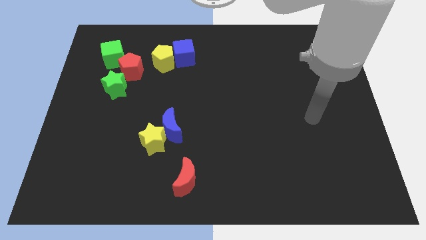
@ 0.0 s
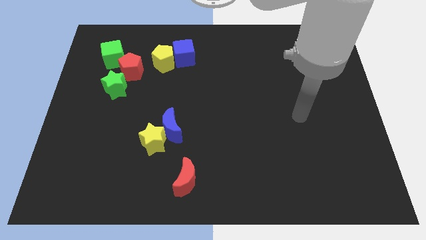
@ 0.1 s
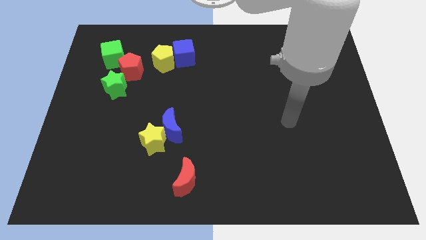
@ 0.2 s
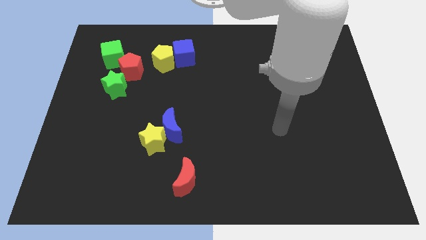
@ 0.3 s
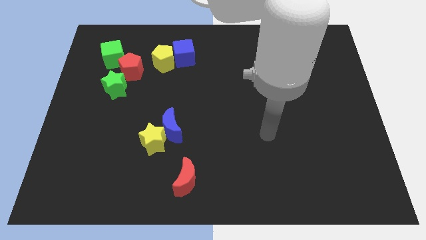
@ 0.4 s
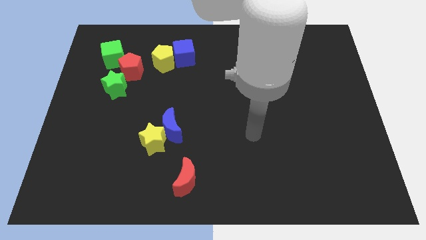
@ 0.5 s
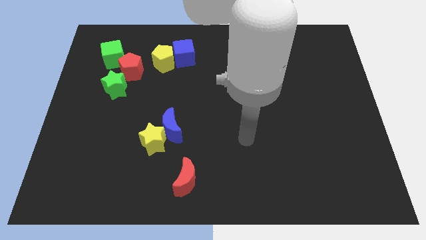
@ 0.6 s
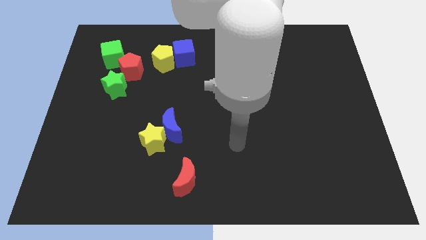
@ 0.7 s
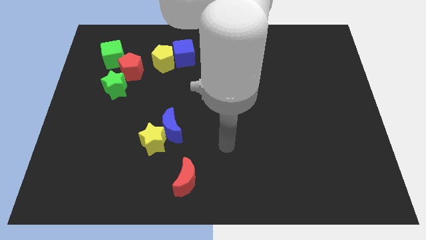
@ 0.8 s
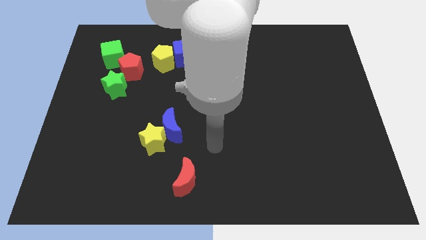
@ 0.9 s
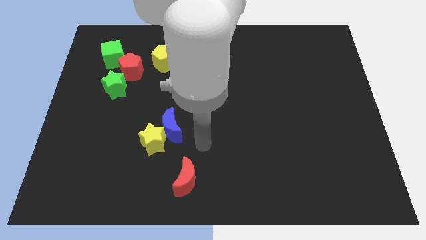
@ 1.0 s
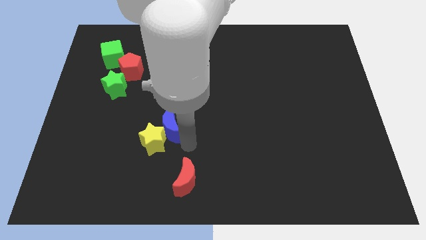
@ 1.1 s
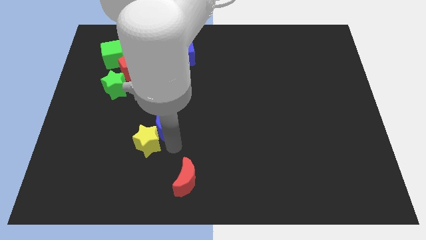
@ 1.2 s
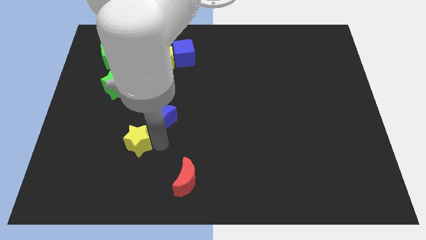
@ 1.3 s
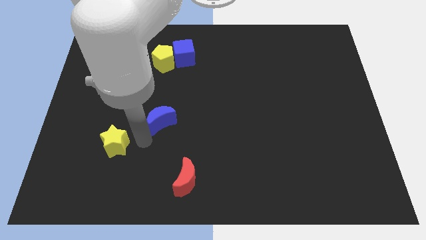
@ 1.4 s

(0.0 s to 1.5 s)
pull the blue moon apart from the yellow star

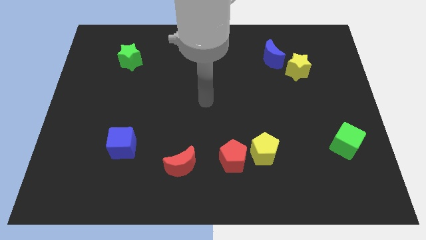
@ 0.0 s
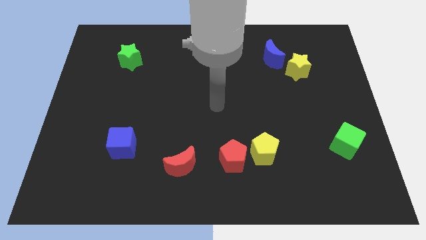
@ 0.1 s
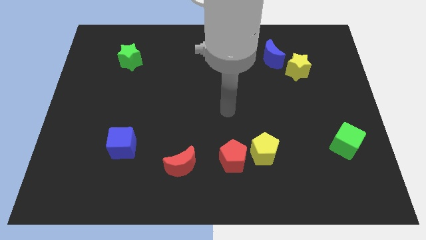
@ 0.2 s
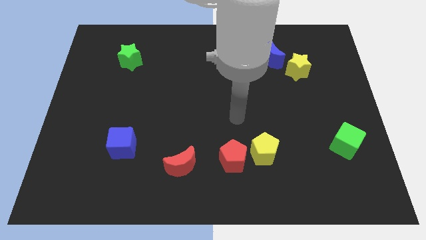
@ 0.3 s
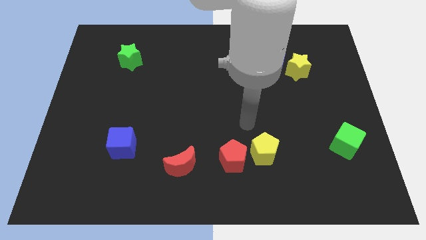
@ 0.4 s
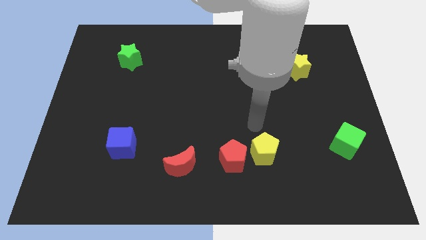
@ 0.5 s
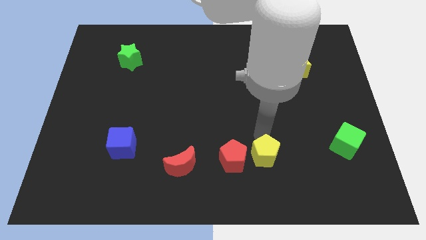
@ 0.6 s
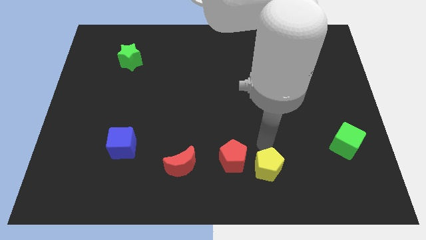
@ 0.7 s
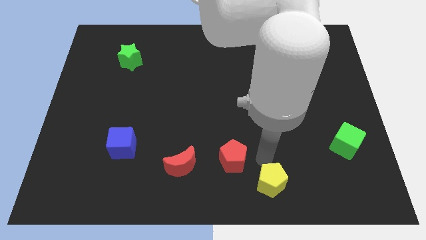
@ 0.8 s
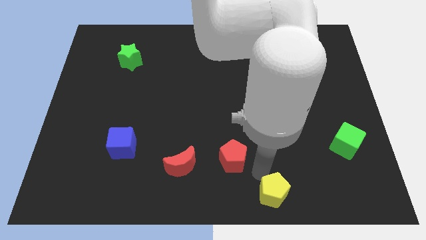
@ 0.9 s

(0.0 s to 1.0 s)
move the red pentagon away from the yellow pentagon

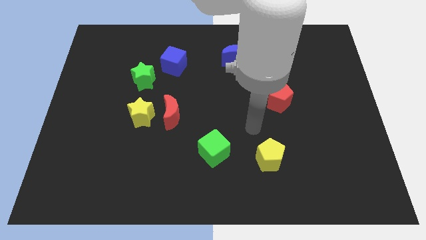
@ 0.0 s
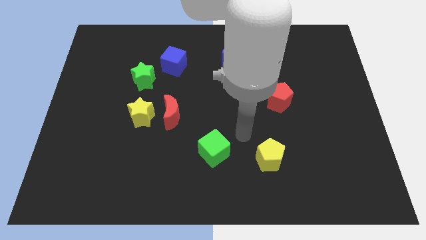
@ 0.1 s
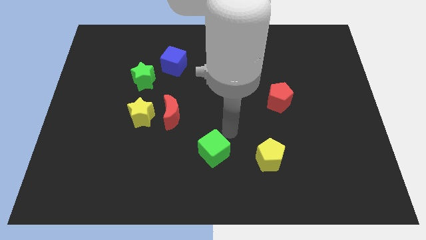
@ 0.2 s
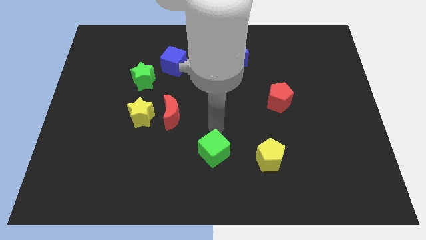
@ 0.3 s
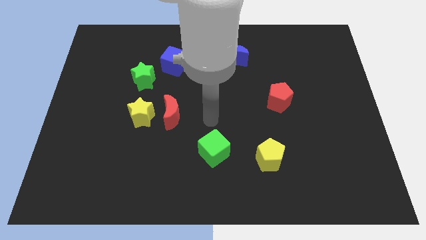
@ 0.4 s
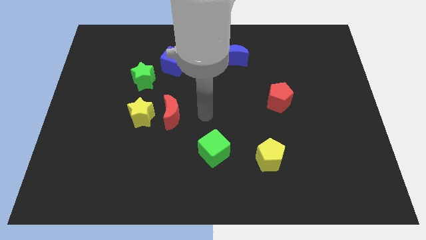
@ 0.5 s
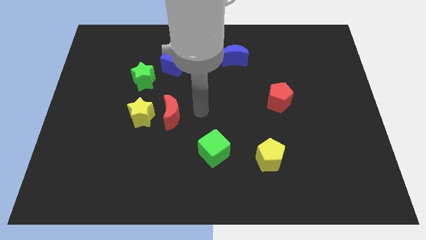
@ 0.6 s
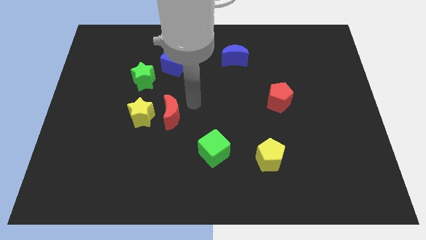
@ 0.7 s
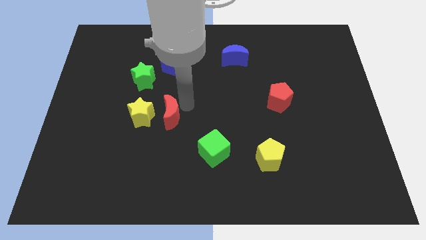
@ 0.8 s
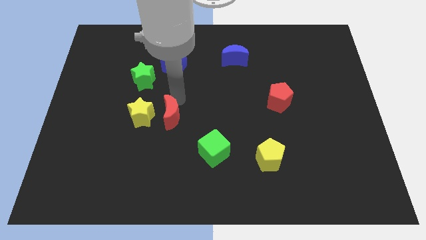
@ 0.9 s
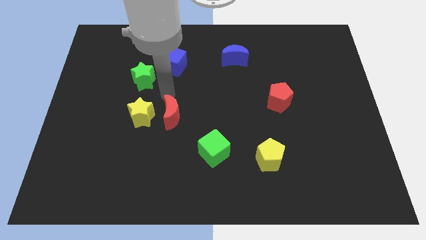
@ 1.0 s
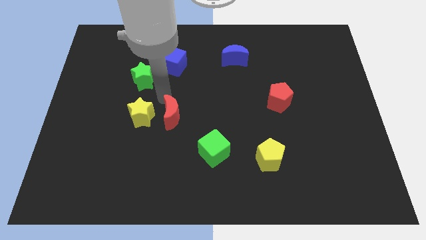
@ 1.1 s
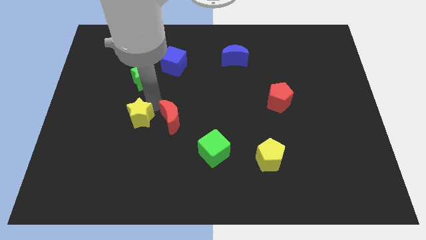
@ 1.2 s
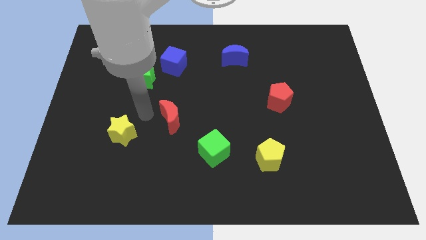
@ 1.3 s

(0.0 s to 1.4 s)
pull the red moon apart from the yellow star

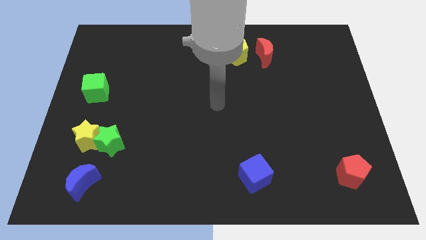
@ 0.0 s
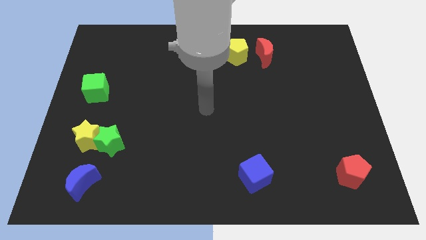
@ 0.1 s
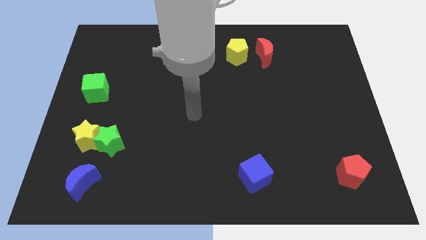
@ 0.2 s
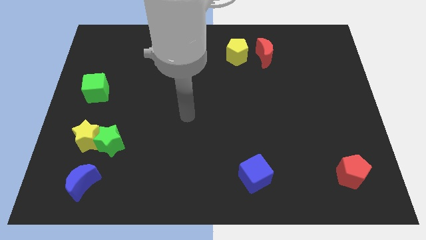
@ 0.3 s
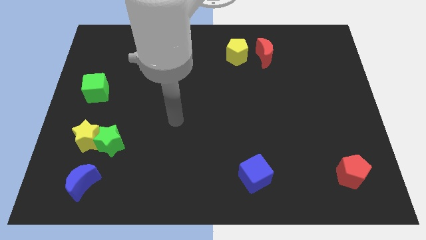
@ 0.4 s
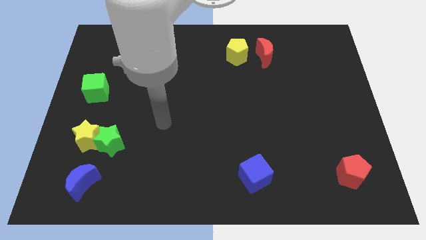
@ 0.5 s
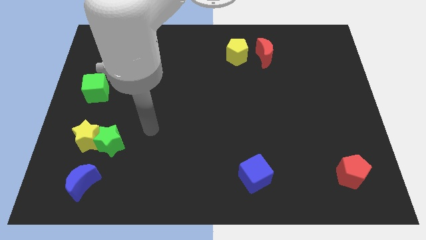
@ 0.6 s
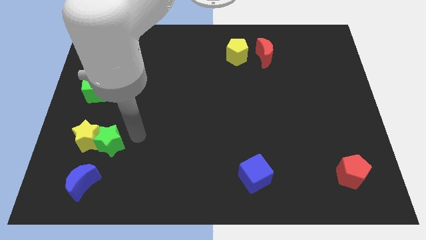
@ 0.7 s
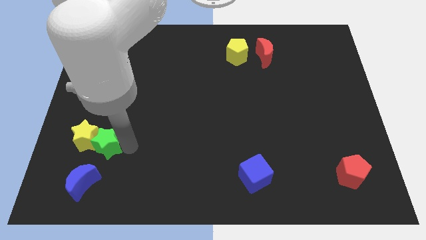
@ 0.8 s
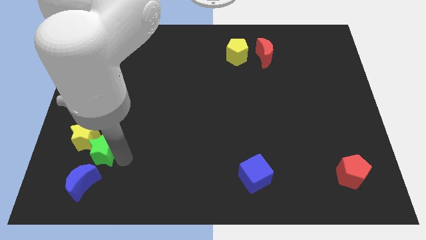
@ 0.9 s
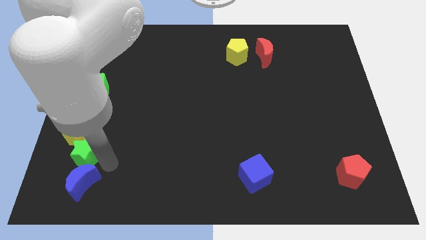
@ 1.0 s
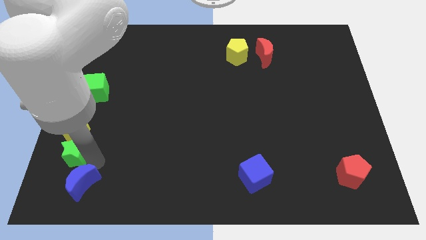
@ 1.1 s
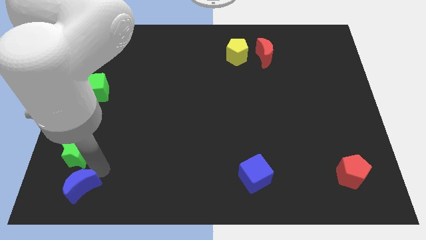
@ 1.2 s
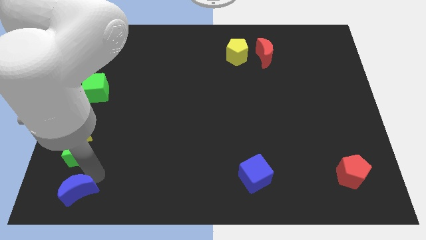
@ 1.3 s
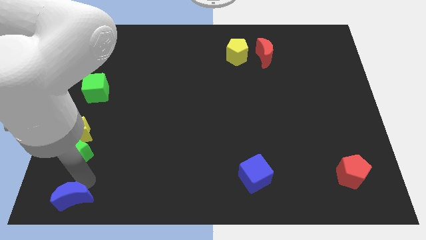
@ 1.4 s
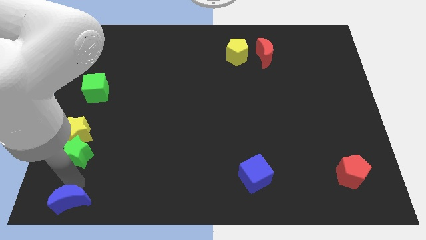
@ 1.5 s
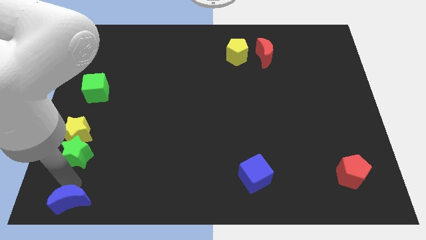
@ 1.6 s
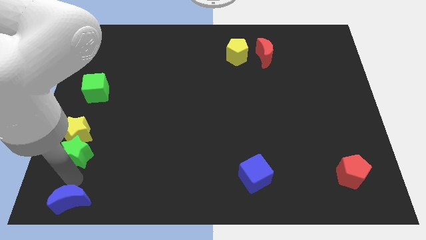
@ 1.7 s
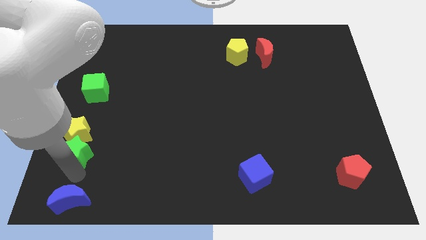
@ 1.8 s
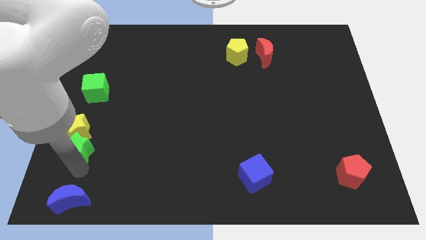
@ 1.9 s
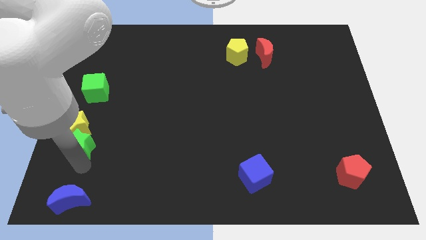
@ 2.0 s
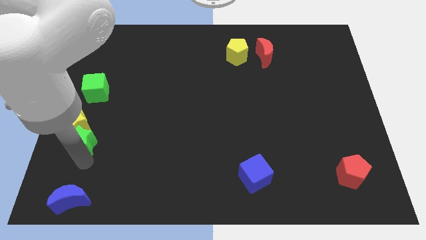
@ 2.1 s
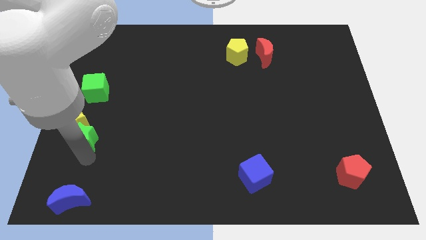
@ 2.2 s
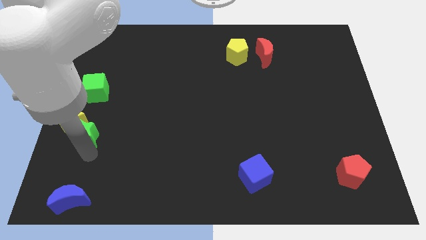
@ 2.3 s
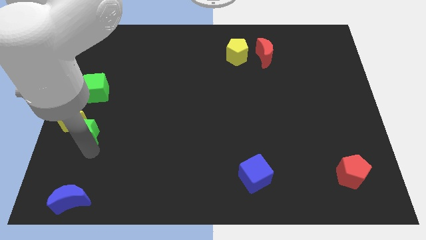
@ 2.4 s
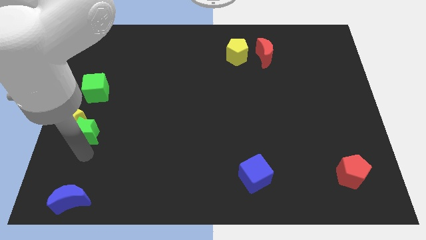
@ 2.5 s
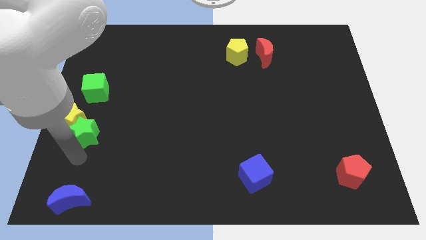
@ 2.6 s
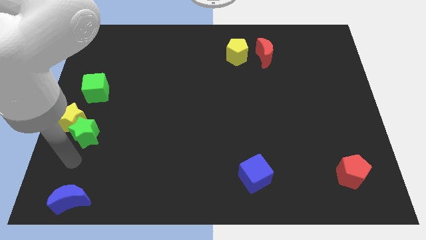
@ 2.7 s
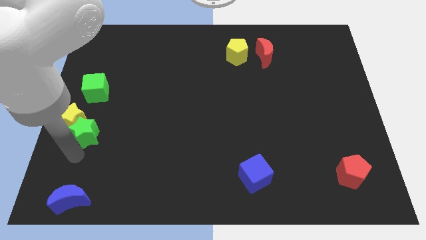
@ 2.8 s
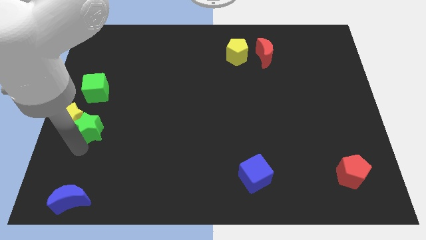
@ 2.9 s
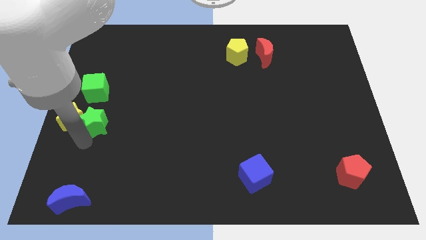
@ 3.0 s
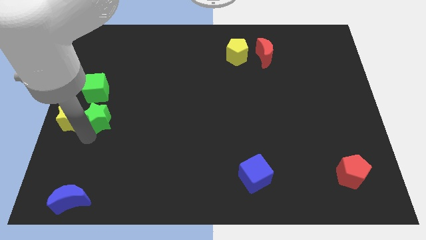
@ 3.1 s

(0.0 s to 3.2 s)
pull the green star apart from the yellow star and blue moon

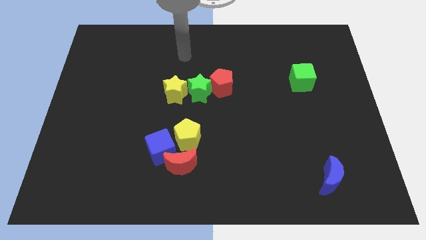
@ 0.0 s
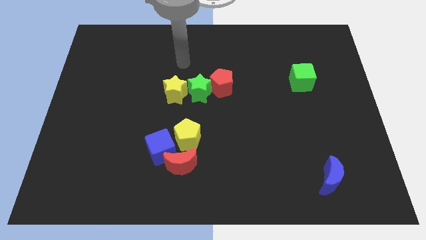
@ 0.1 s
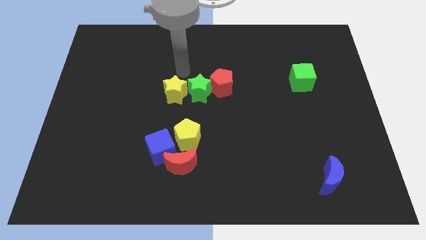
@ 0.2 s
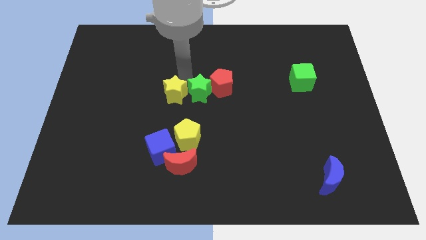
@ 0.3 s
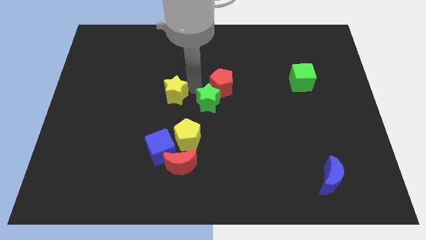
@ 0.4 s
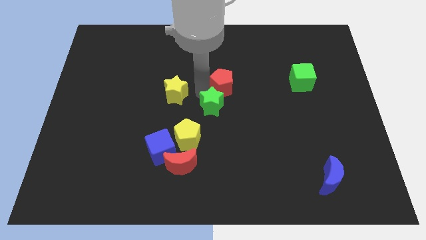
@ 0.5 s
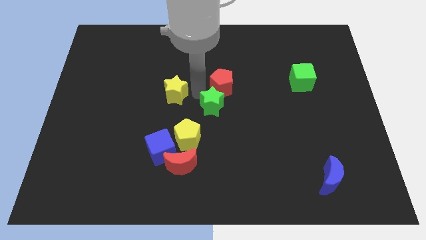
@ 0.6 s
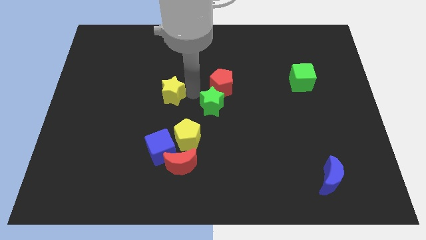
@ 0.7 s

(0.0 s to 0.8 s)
move the yellow star away from the green star

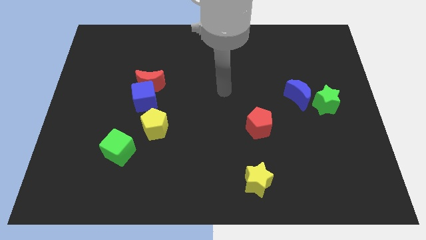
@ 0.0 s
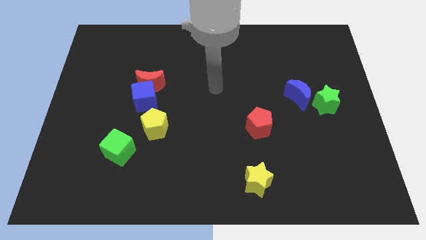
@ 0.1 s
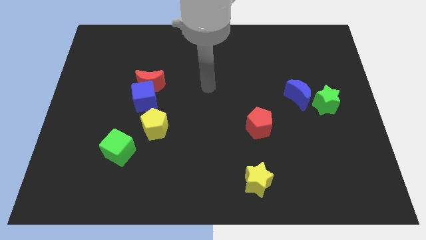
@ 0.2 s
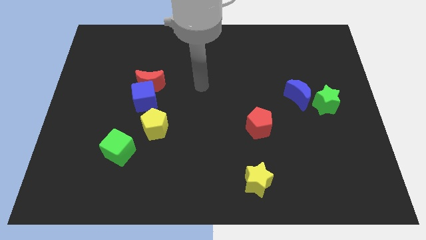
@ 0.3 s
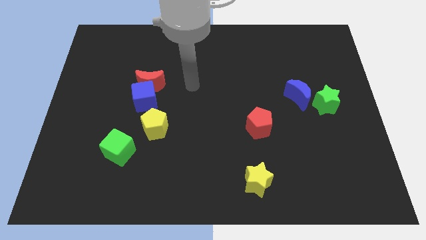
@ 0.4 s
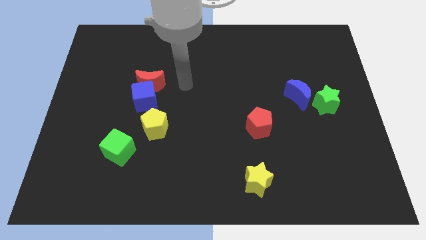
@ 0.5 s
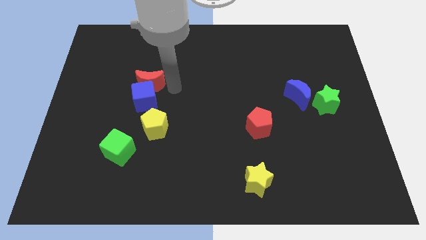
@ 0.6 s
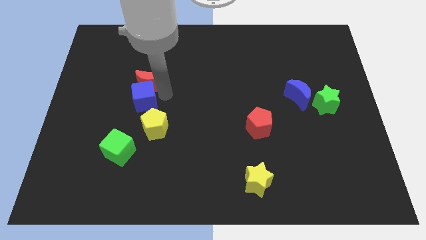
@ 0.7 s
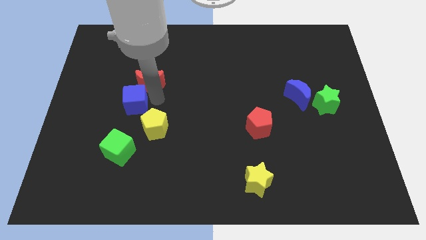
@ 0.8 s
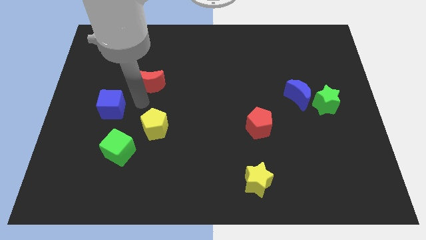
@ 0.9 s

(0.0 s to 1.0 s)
separate the red moon from the blue cube

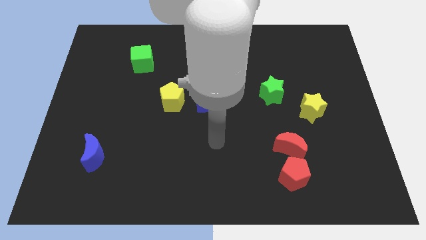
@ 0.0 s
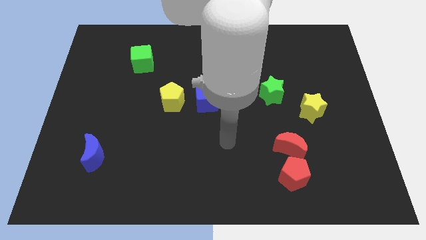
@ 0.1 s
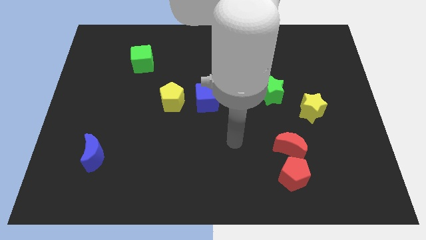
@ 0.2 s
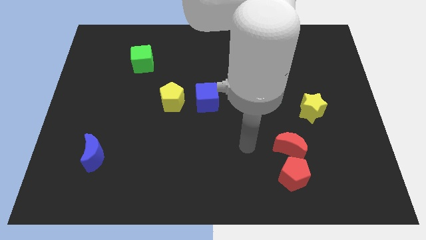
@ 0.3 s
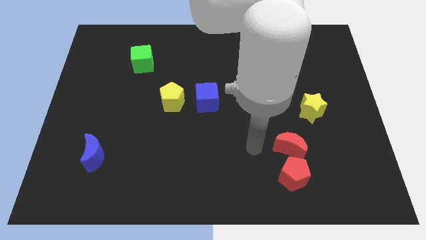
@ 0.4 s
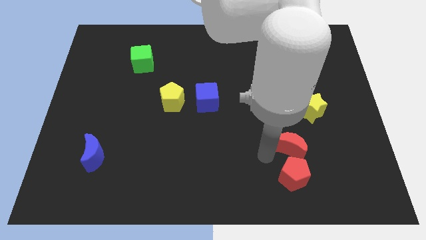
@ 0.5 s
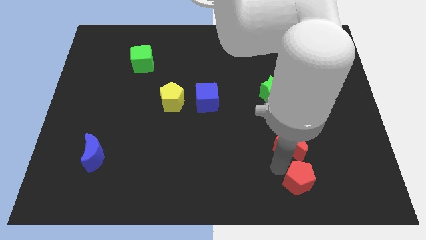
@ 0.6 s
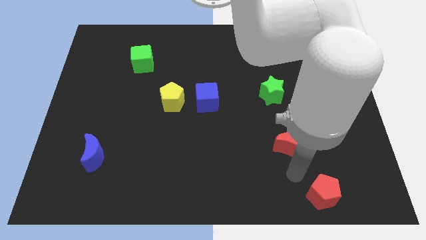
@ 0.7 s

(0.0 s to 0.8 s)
pull the red moon apart from the red pentagon
